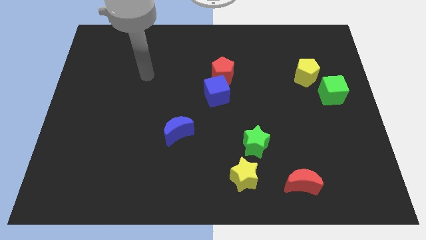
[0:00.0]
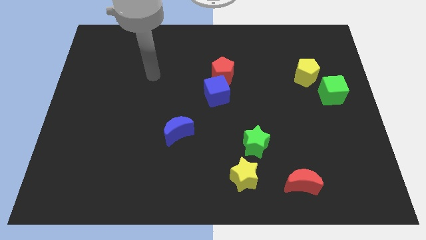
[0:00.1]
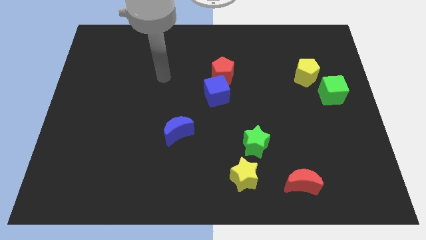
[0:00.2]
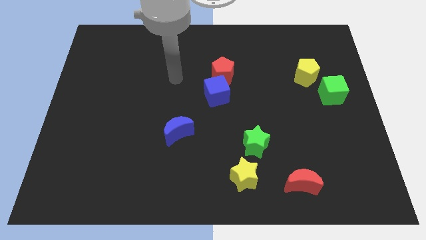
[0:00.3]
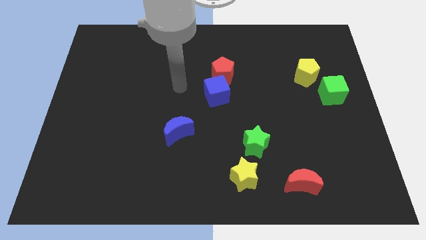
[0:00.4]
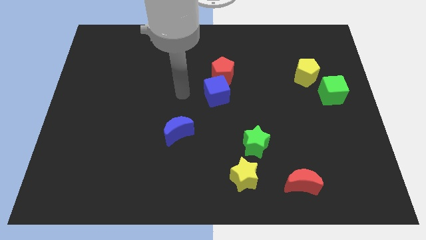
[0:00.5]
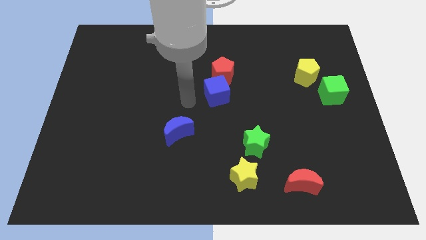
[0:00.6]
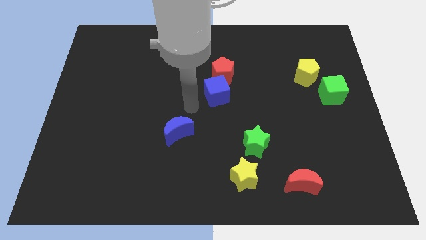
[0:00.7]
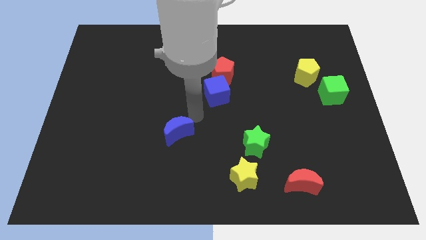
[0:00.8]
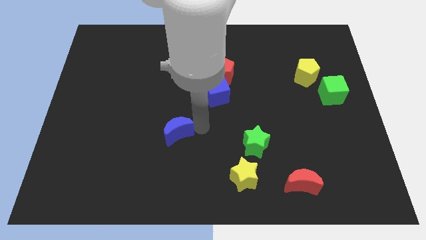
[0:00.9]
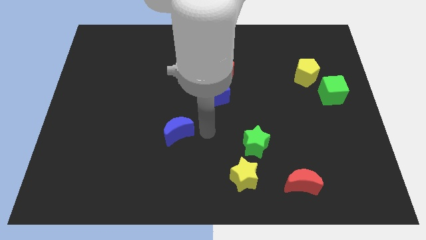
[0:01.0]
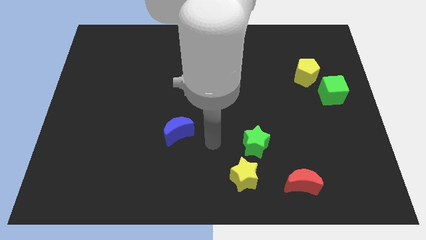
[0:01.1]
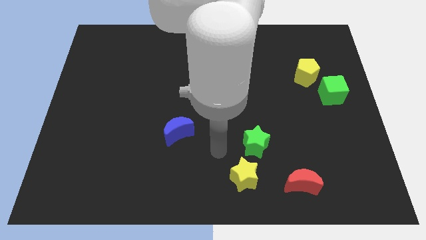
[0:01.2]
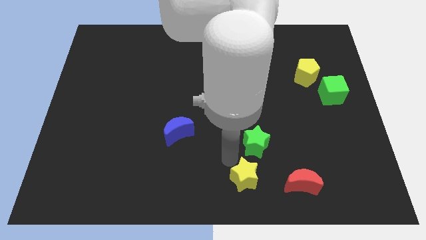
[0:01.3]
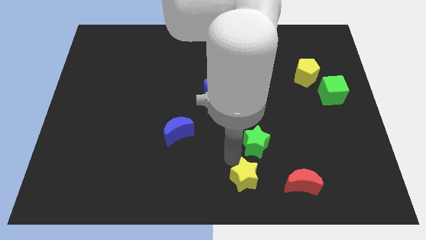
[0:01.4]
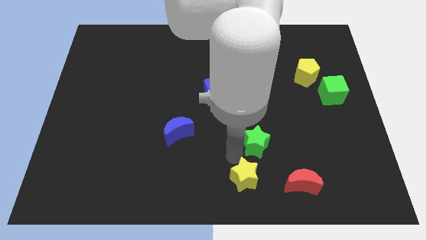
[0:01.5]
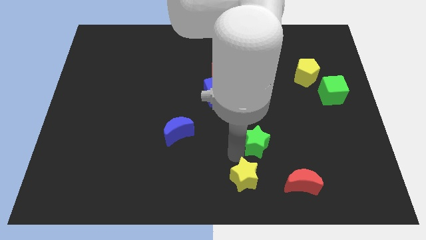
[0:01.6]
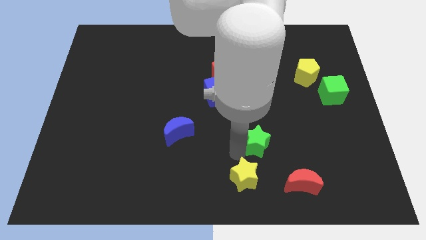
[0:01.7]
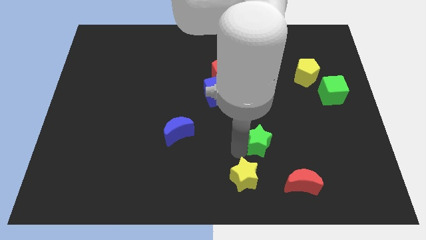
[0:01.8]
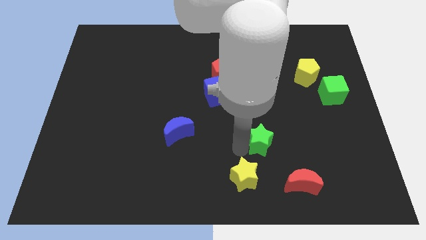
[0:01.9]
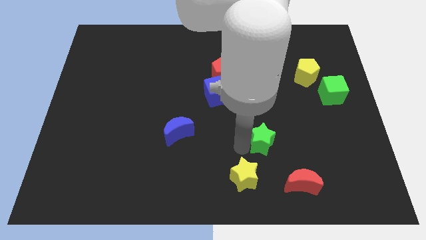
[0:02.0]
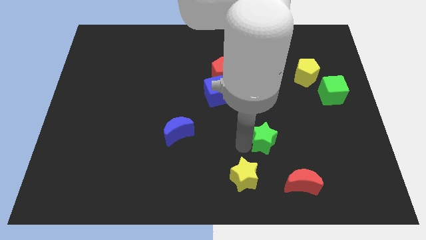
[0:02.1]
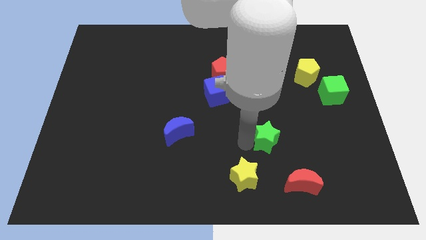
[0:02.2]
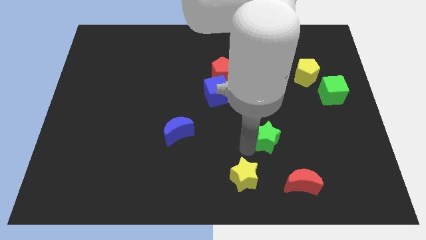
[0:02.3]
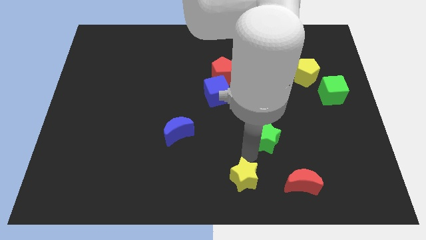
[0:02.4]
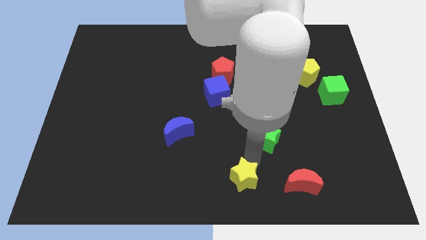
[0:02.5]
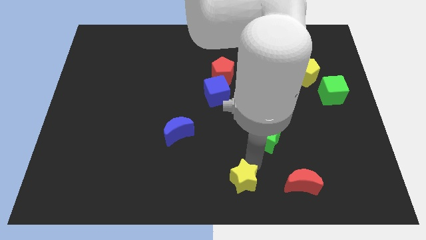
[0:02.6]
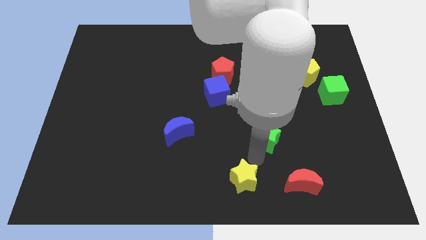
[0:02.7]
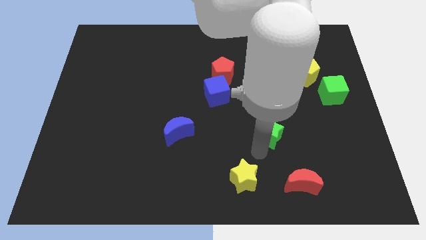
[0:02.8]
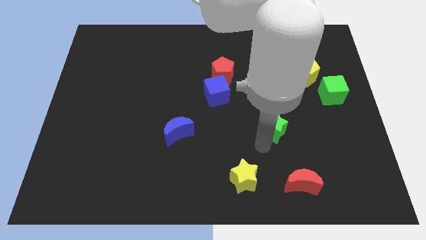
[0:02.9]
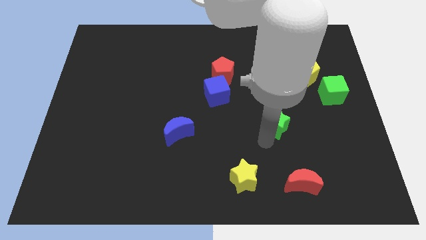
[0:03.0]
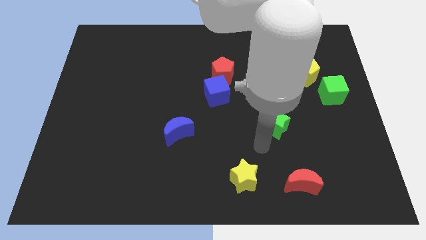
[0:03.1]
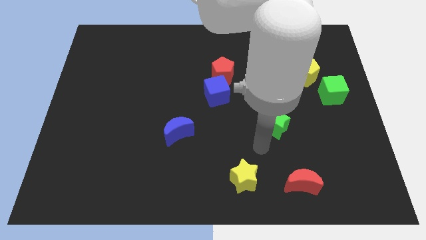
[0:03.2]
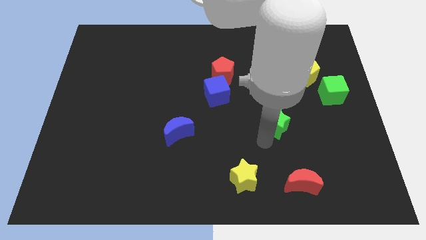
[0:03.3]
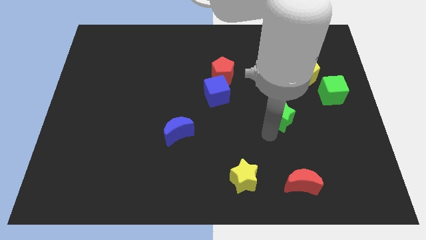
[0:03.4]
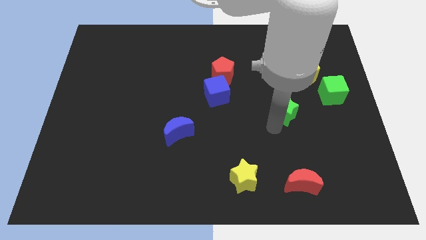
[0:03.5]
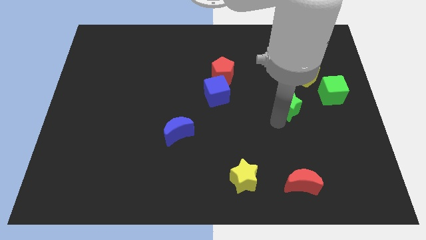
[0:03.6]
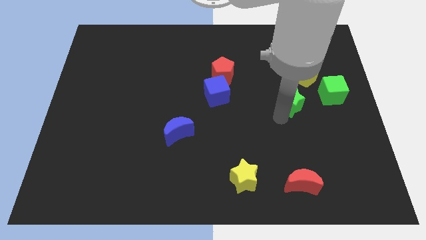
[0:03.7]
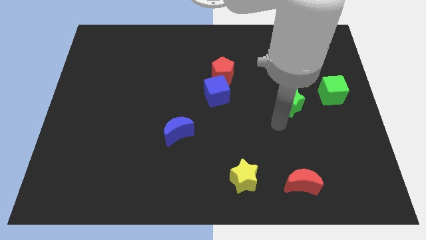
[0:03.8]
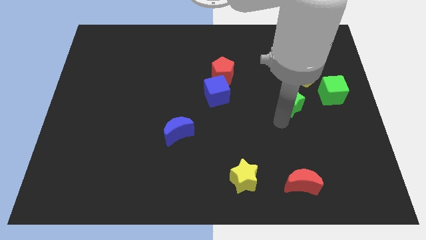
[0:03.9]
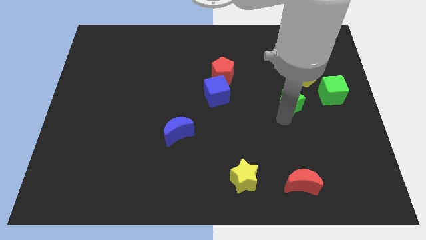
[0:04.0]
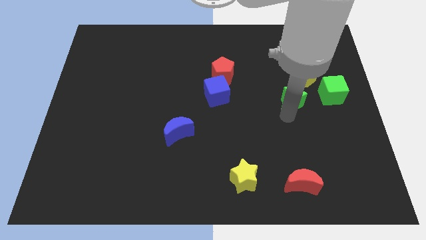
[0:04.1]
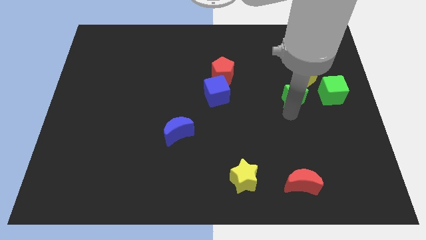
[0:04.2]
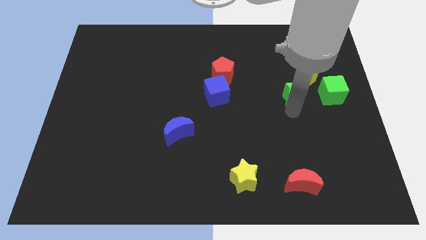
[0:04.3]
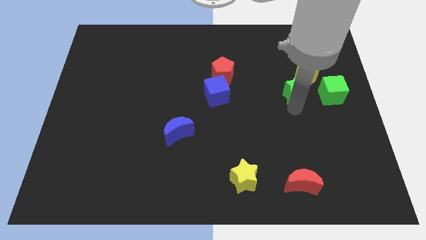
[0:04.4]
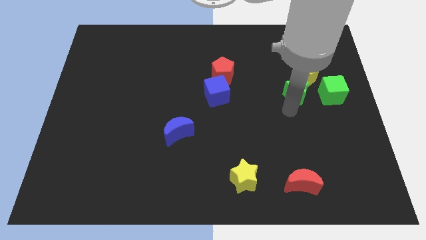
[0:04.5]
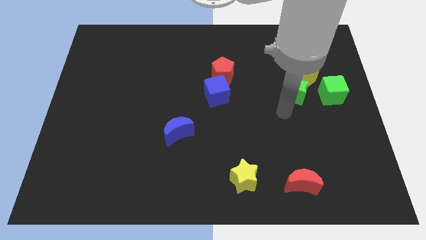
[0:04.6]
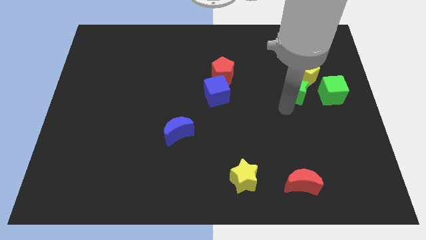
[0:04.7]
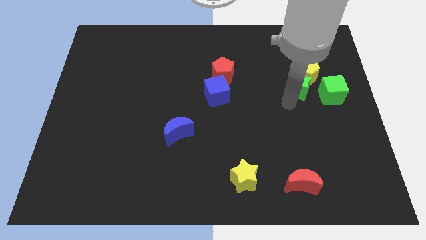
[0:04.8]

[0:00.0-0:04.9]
move the green star to the yellow pentagon

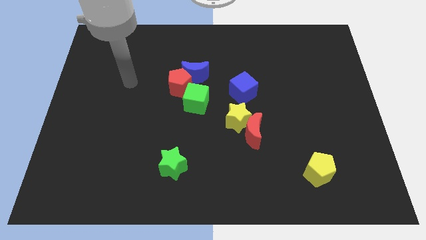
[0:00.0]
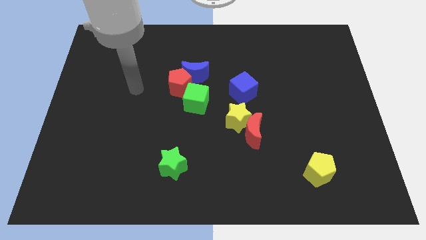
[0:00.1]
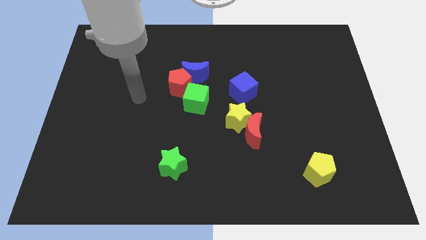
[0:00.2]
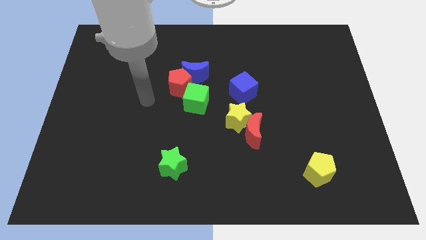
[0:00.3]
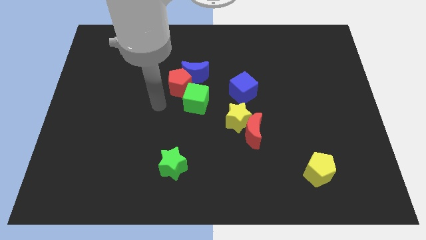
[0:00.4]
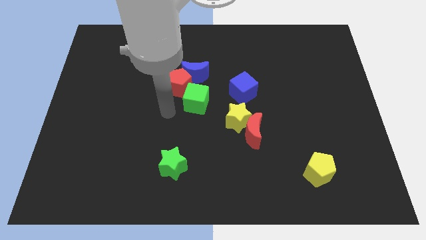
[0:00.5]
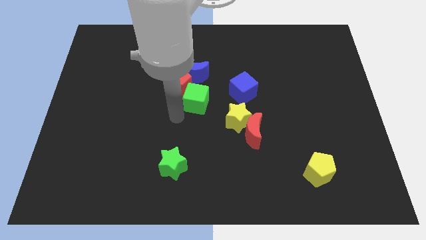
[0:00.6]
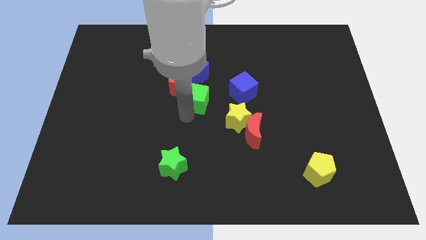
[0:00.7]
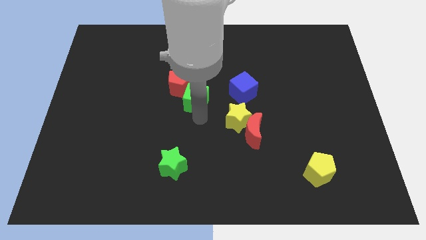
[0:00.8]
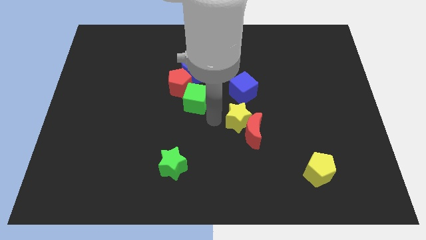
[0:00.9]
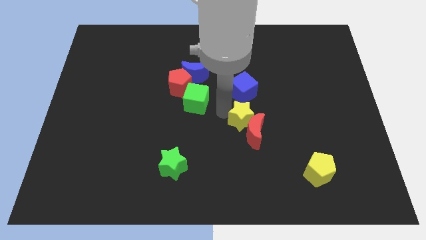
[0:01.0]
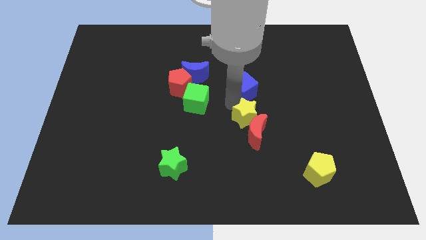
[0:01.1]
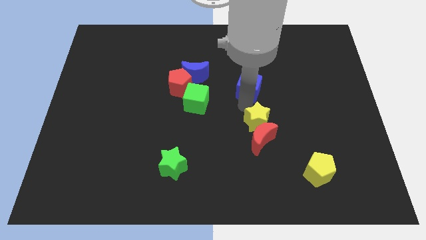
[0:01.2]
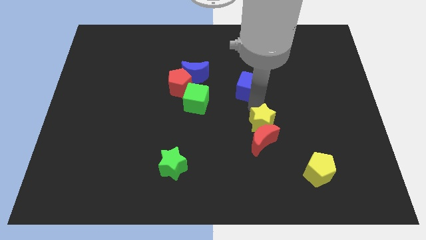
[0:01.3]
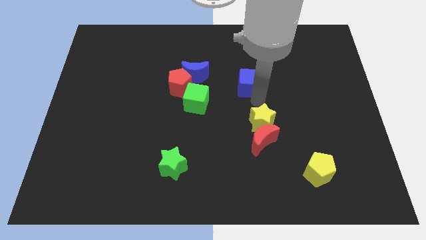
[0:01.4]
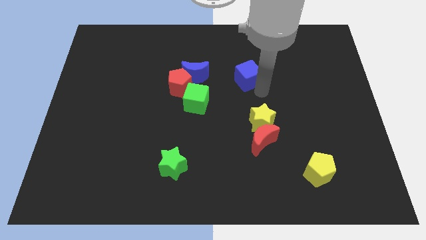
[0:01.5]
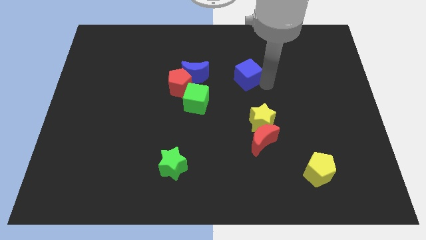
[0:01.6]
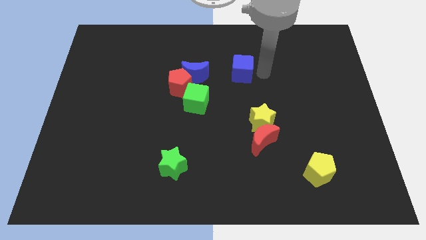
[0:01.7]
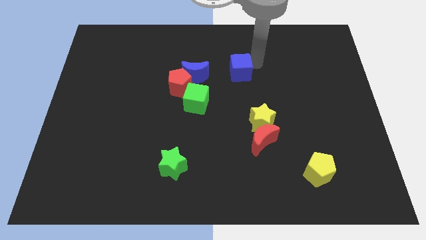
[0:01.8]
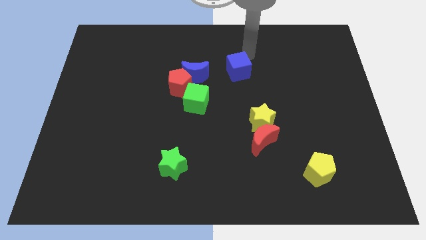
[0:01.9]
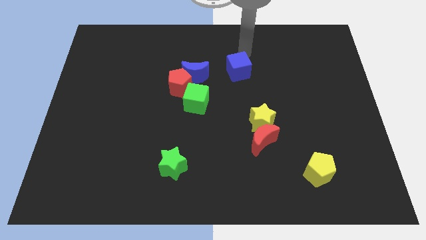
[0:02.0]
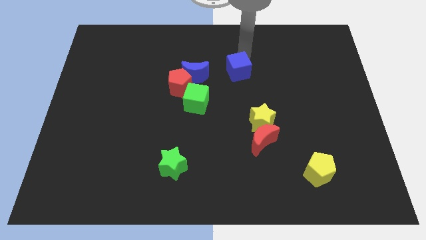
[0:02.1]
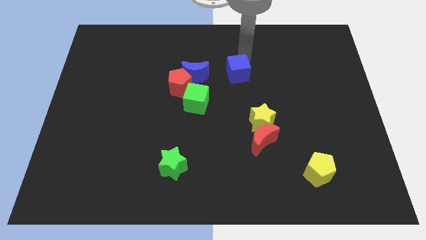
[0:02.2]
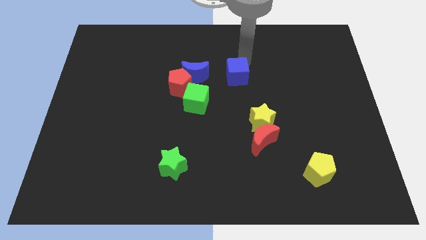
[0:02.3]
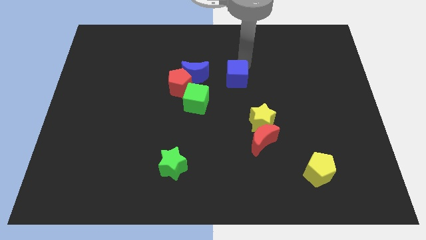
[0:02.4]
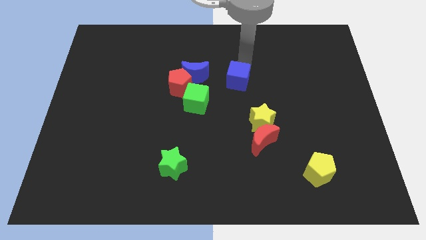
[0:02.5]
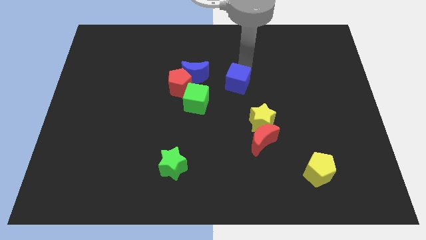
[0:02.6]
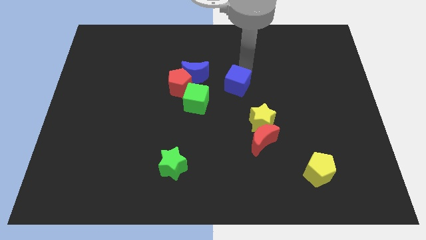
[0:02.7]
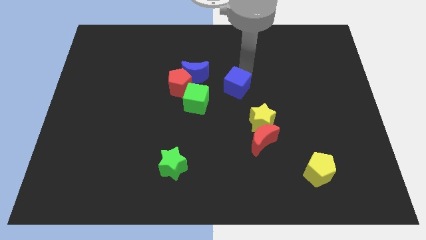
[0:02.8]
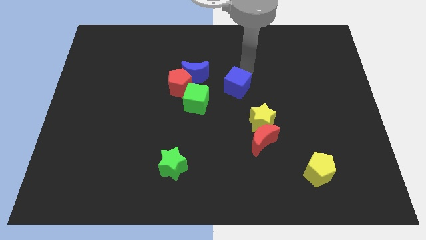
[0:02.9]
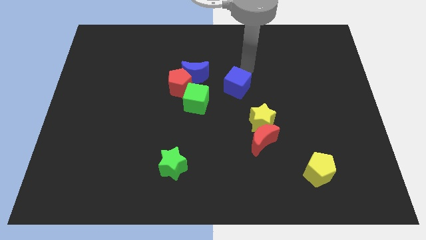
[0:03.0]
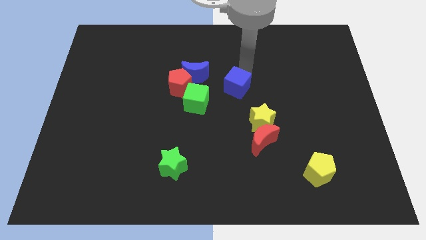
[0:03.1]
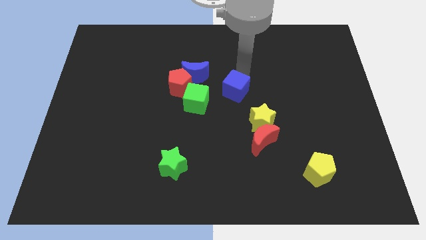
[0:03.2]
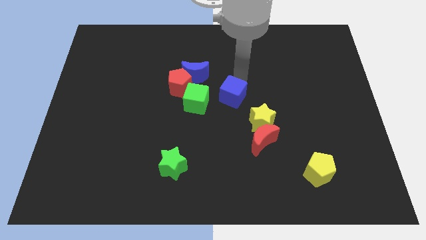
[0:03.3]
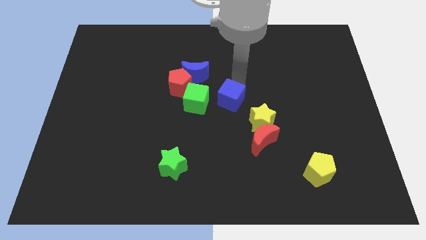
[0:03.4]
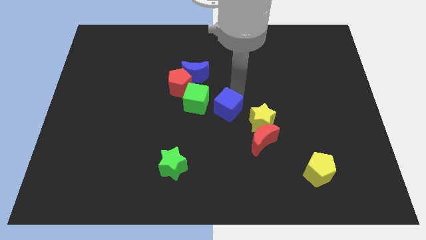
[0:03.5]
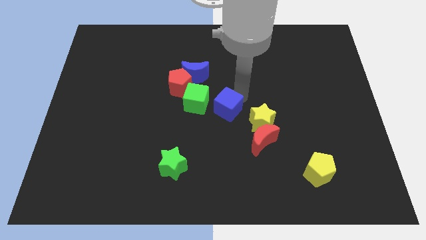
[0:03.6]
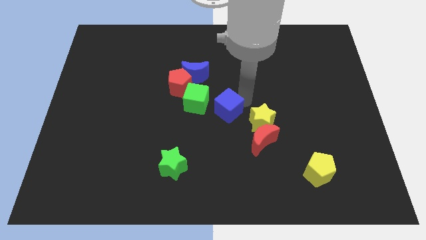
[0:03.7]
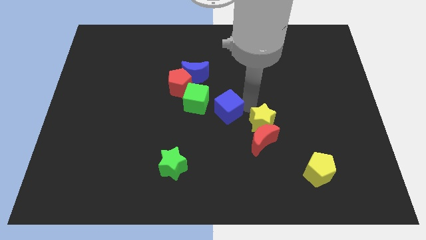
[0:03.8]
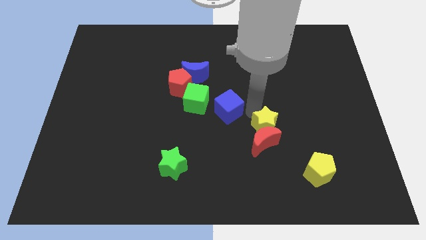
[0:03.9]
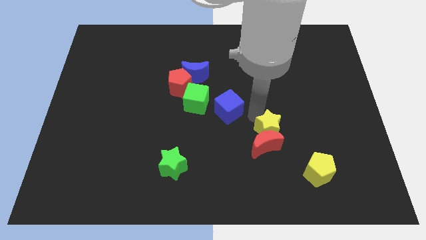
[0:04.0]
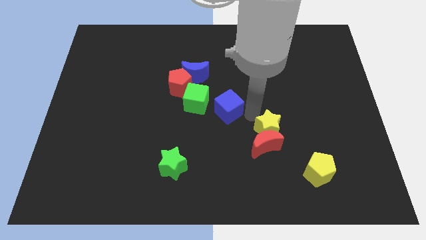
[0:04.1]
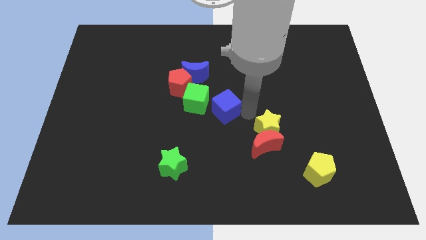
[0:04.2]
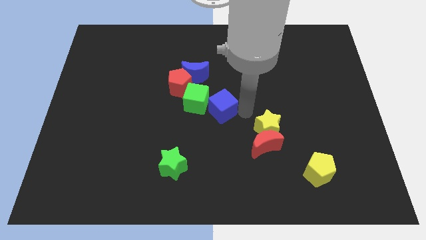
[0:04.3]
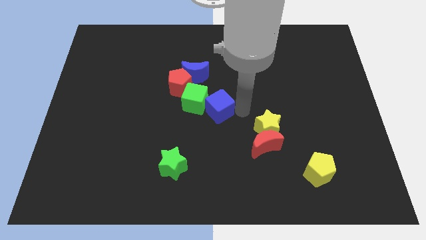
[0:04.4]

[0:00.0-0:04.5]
push the blue cube towards the green cube
